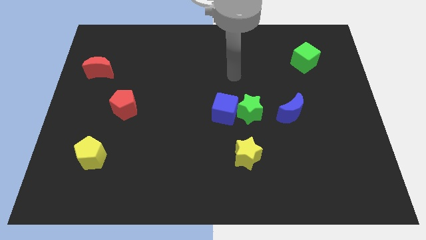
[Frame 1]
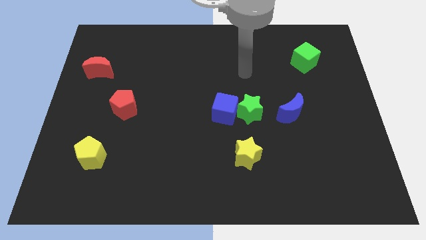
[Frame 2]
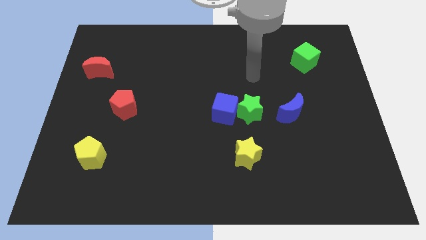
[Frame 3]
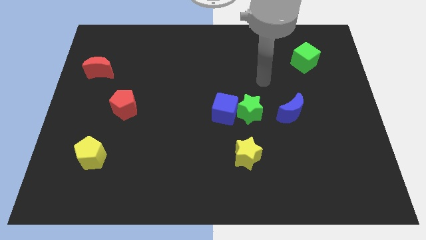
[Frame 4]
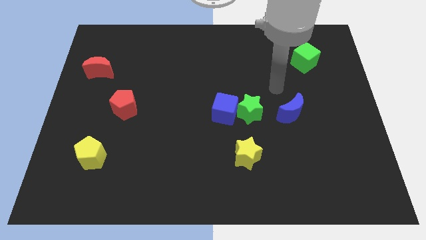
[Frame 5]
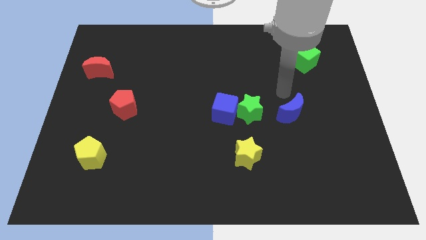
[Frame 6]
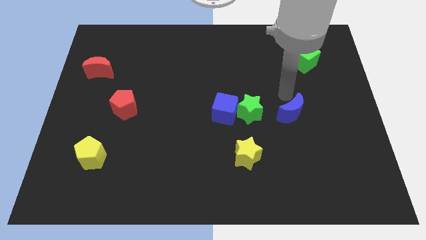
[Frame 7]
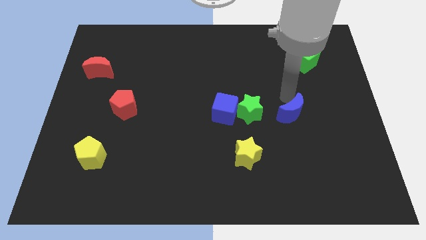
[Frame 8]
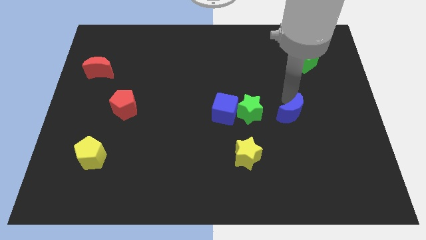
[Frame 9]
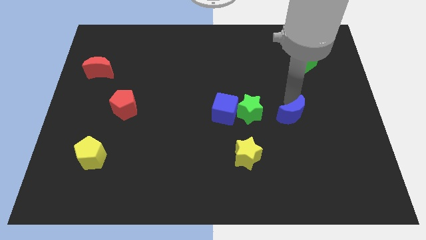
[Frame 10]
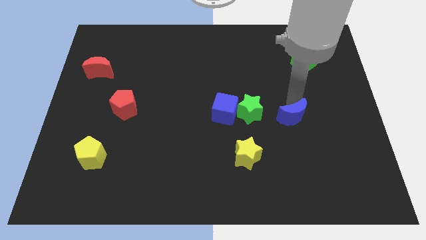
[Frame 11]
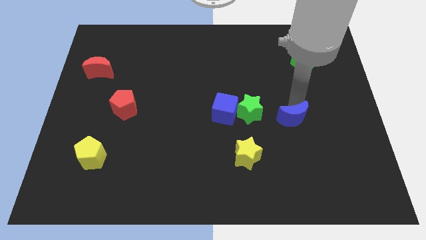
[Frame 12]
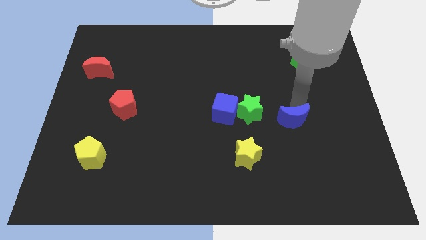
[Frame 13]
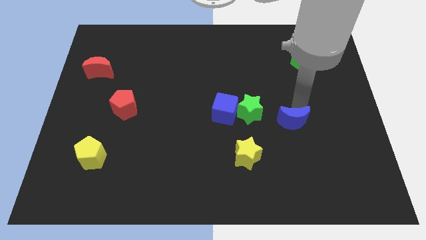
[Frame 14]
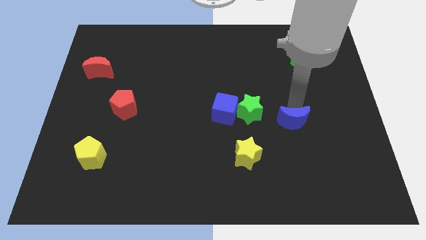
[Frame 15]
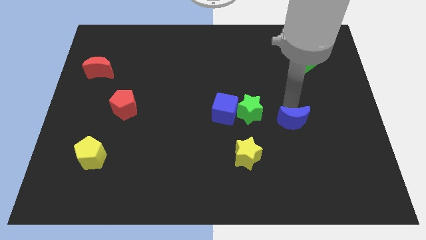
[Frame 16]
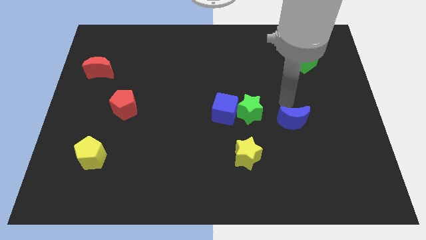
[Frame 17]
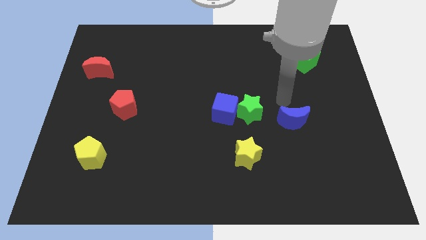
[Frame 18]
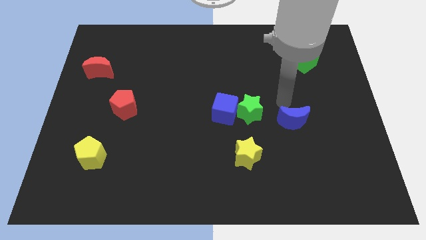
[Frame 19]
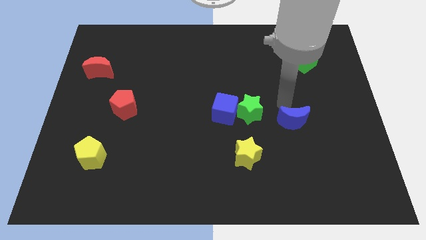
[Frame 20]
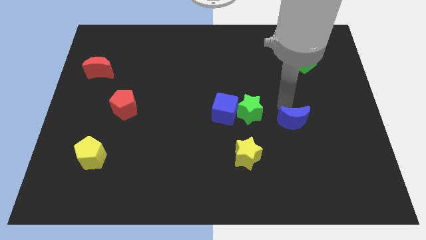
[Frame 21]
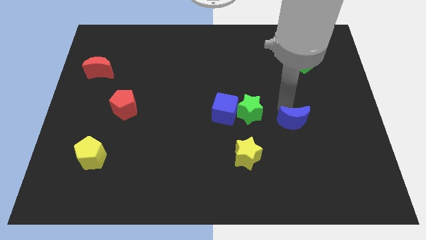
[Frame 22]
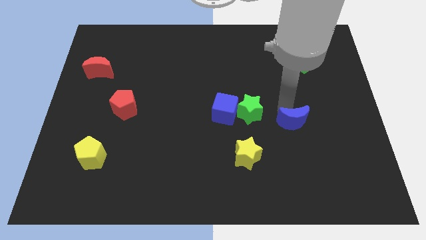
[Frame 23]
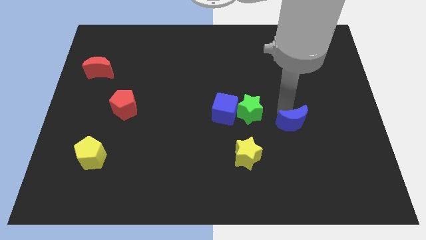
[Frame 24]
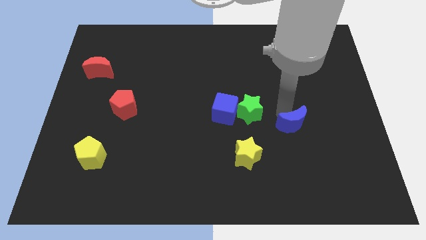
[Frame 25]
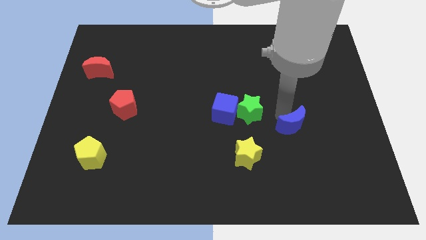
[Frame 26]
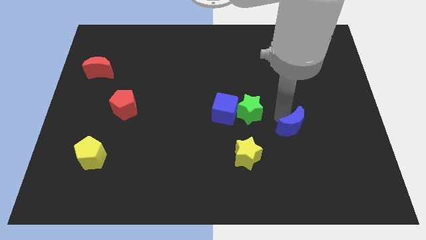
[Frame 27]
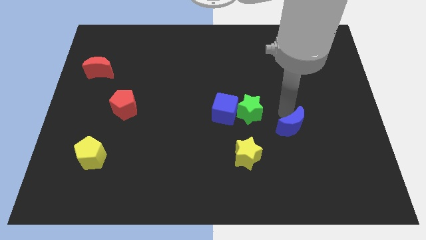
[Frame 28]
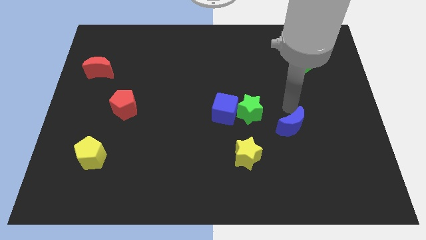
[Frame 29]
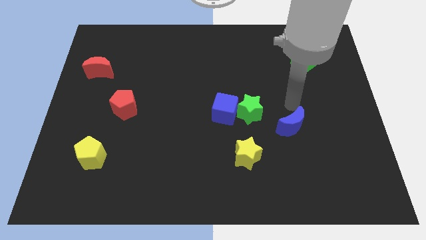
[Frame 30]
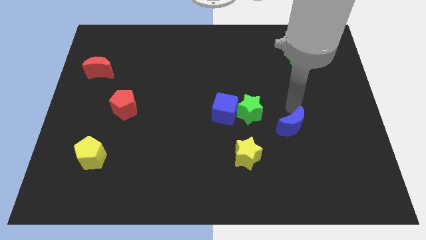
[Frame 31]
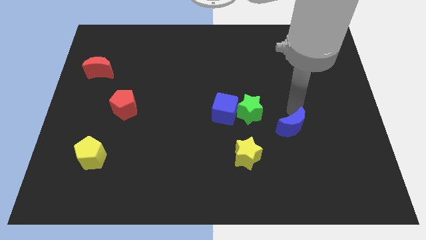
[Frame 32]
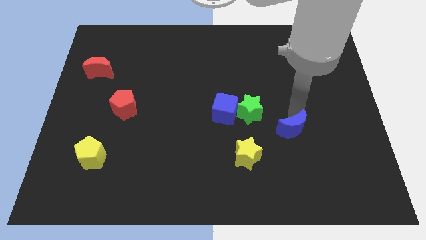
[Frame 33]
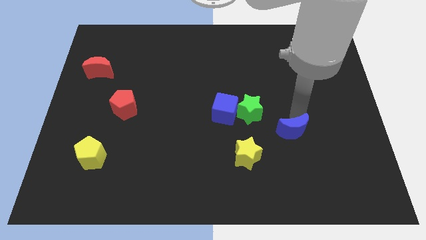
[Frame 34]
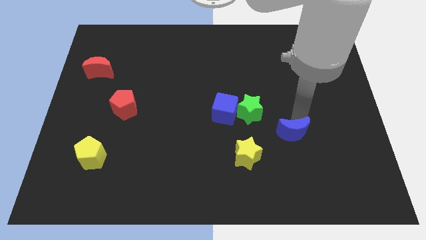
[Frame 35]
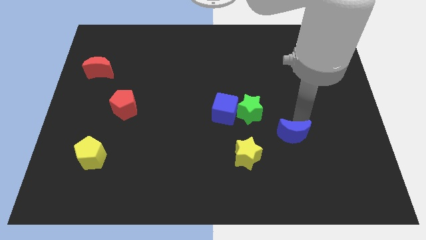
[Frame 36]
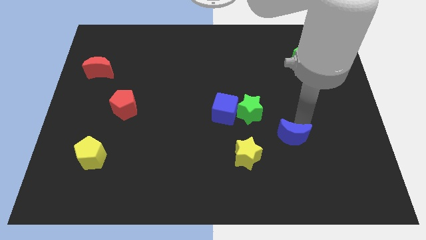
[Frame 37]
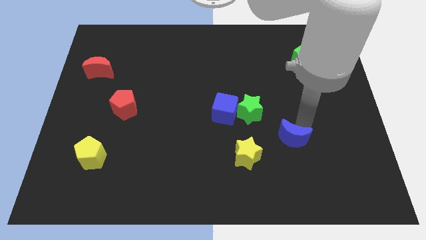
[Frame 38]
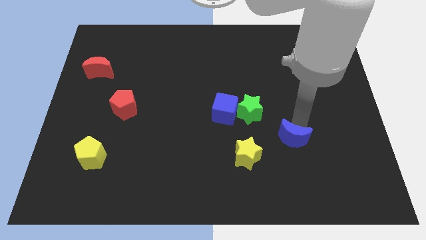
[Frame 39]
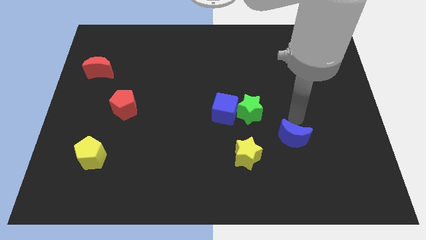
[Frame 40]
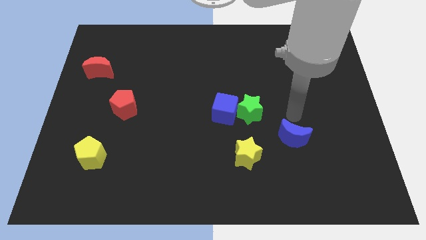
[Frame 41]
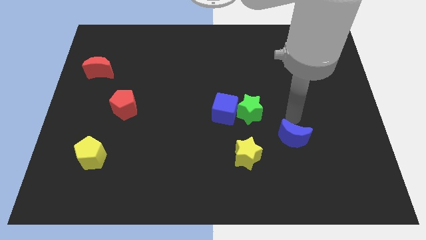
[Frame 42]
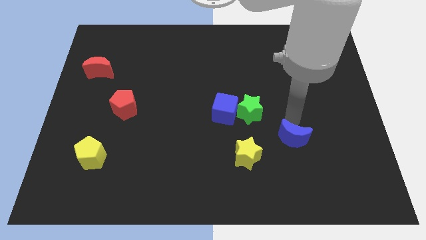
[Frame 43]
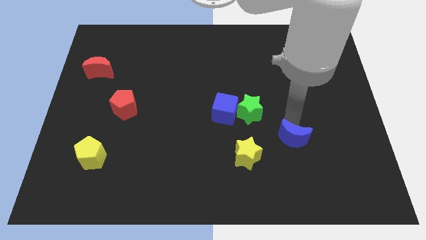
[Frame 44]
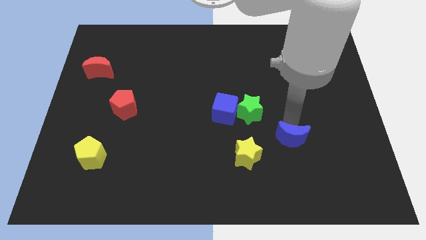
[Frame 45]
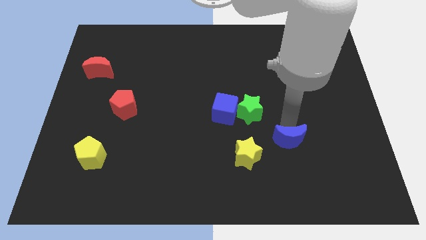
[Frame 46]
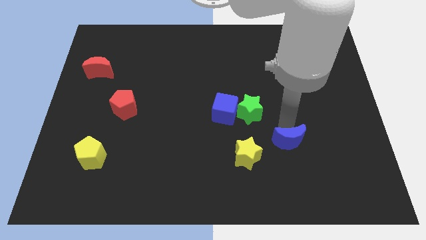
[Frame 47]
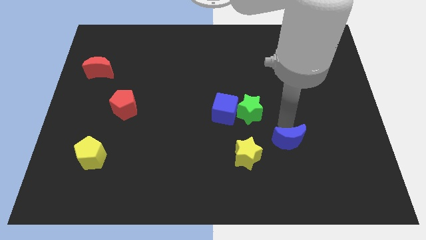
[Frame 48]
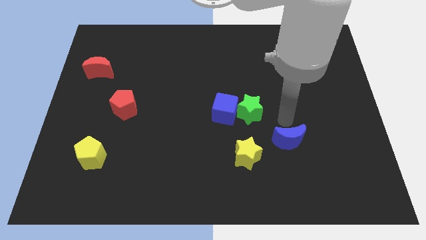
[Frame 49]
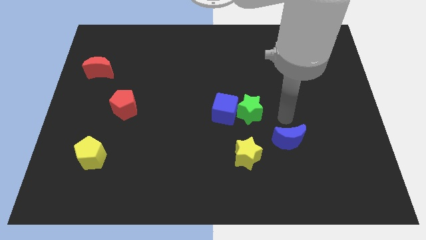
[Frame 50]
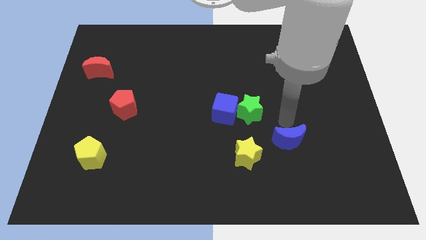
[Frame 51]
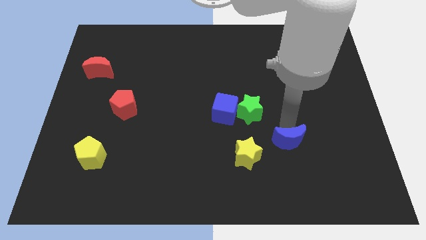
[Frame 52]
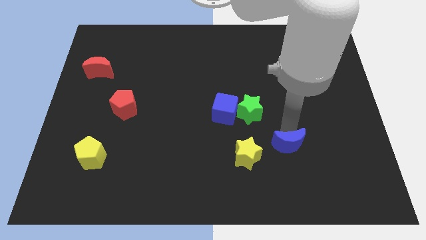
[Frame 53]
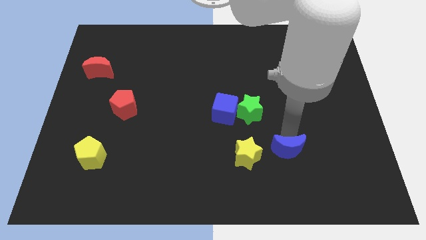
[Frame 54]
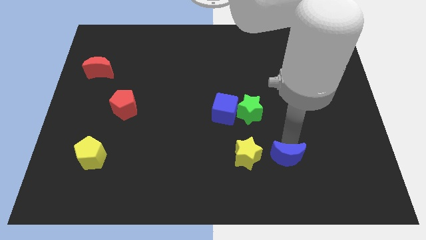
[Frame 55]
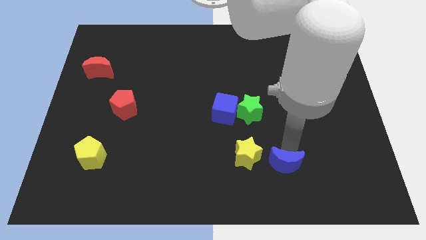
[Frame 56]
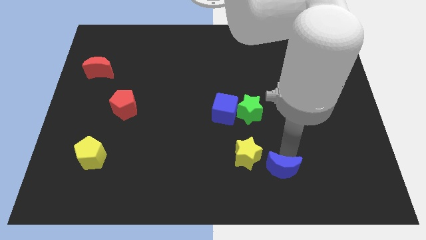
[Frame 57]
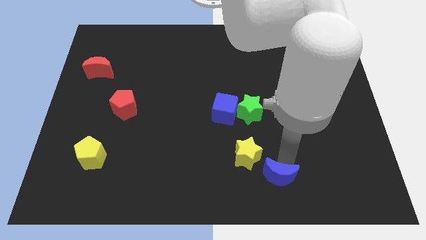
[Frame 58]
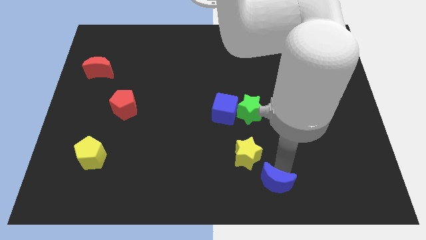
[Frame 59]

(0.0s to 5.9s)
slide the blue moon to the bottom side

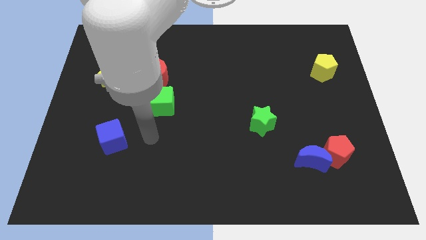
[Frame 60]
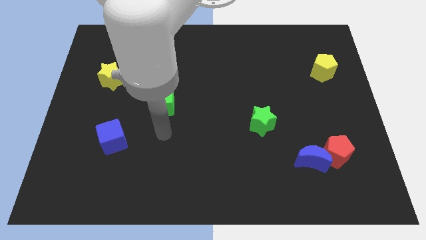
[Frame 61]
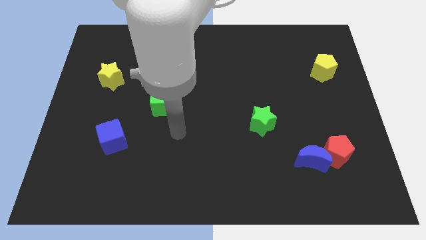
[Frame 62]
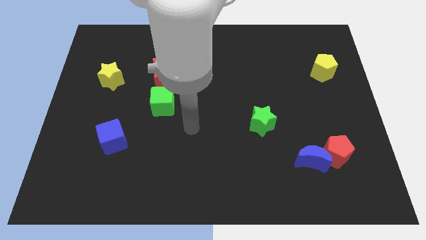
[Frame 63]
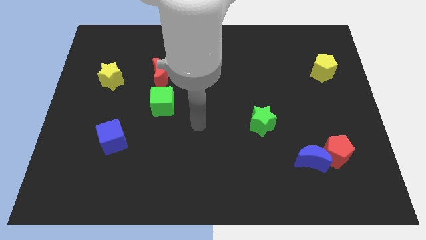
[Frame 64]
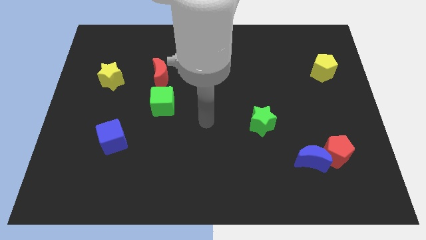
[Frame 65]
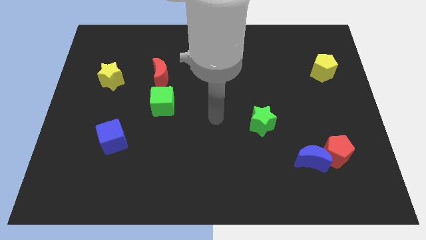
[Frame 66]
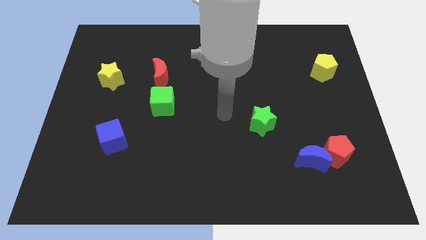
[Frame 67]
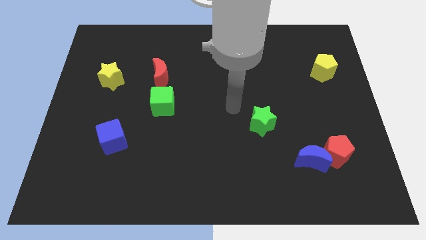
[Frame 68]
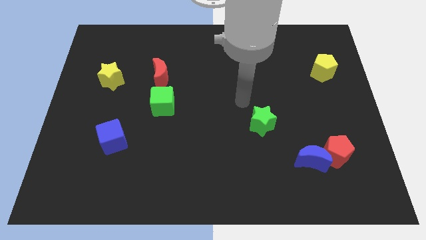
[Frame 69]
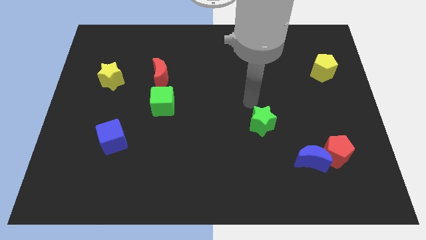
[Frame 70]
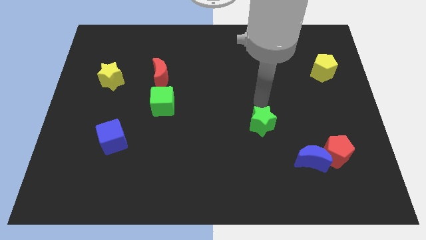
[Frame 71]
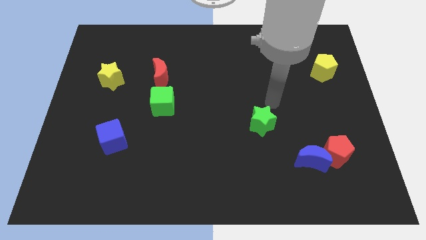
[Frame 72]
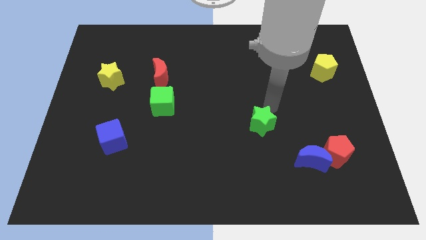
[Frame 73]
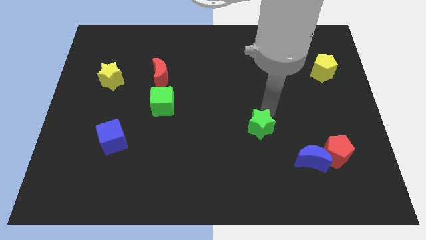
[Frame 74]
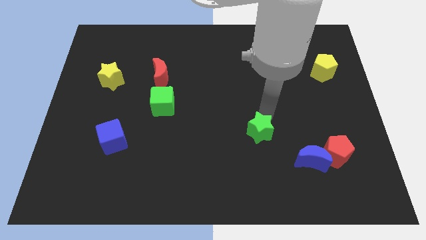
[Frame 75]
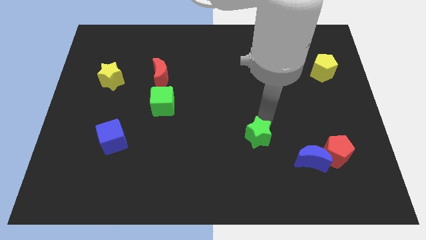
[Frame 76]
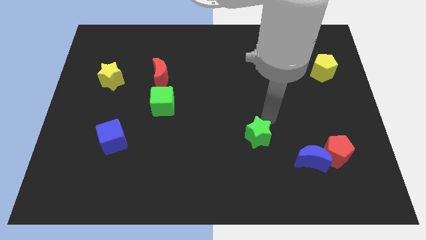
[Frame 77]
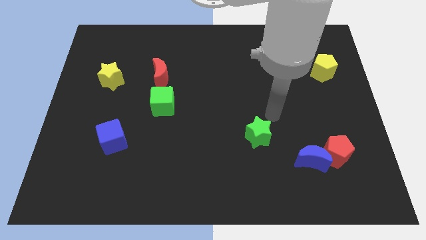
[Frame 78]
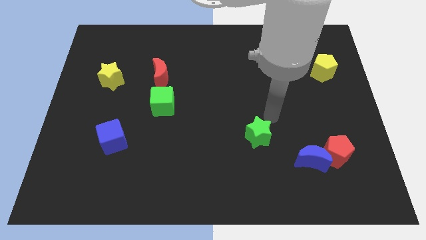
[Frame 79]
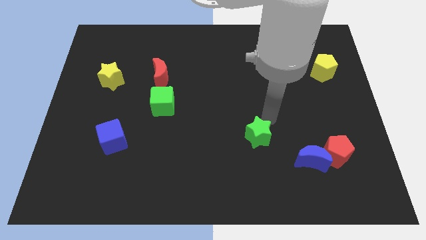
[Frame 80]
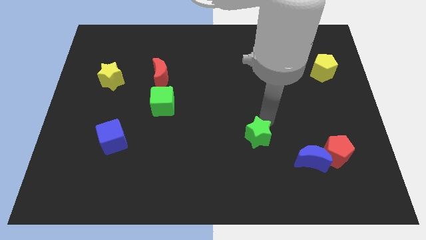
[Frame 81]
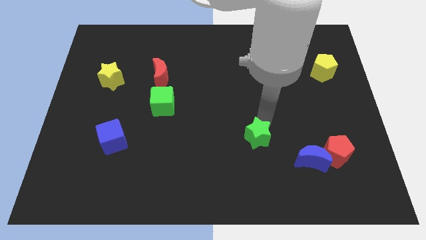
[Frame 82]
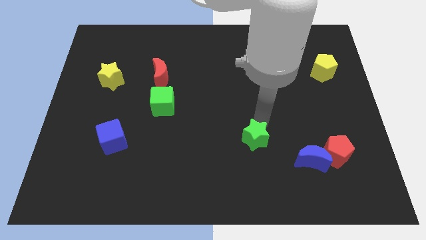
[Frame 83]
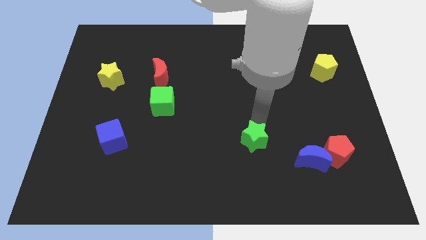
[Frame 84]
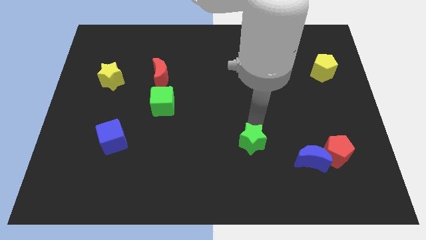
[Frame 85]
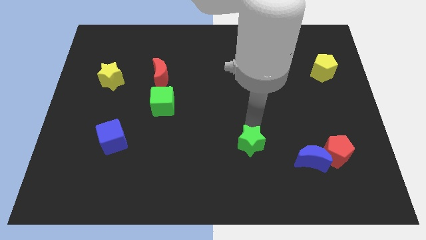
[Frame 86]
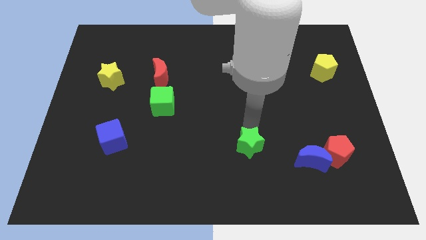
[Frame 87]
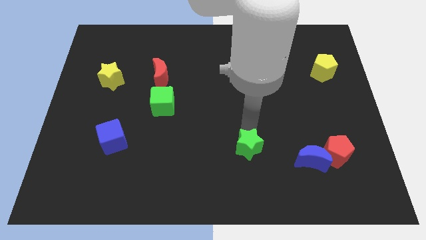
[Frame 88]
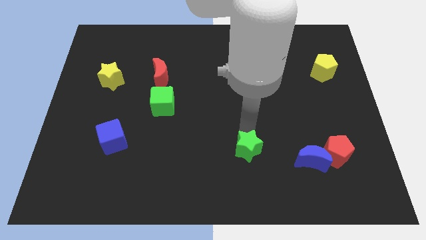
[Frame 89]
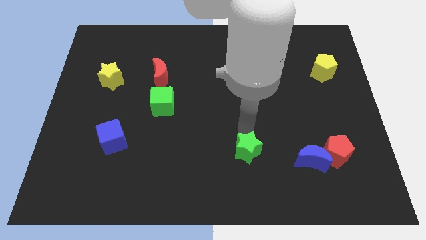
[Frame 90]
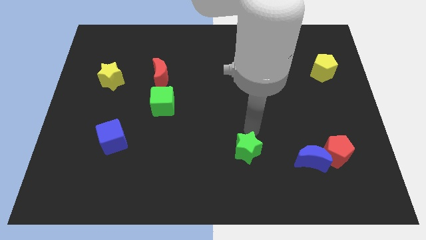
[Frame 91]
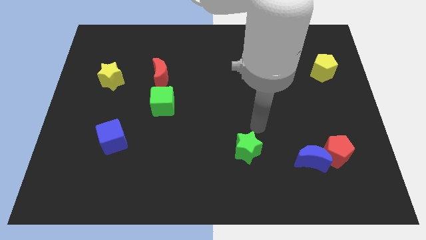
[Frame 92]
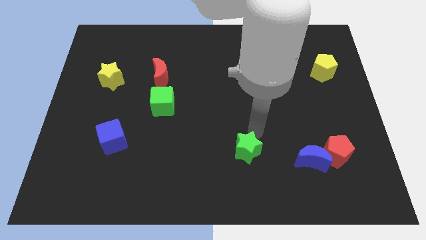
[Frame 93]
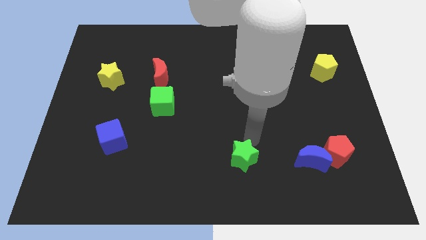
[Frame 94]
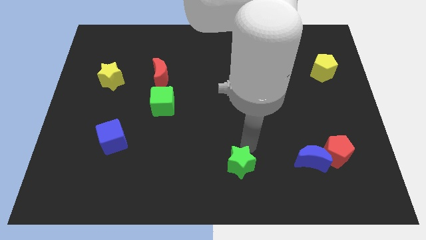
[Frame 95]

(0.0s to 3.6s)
push the green star to the bottom
